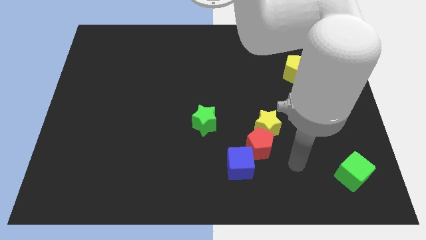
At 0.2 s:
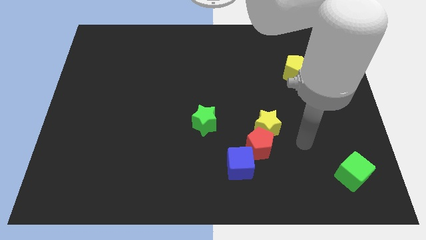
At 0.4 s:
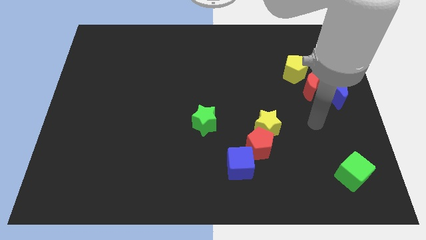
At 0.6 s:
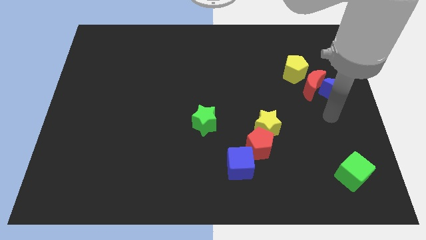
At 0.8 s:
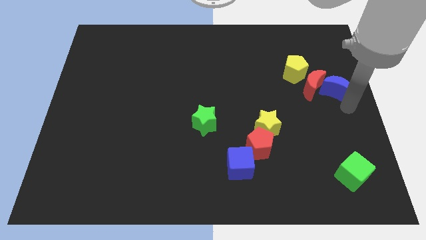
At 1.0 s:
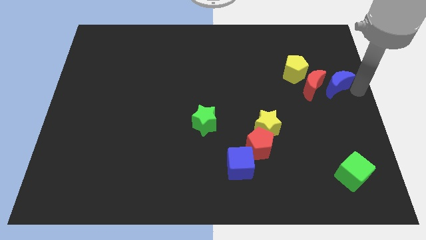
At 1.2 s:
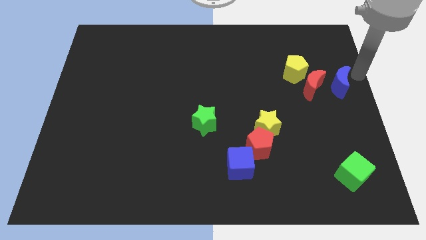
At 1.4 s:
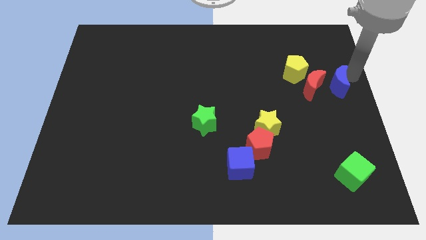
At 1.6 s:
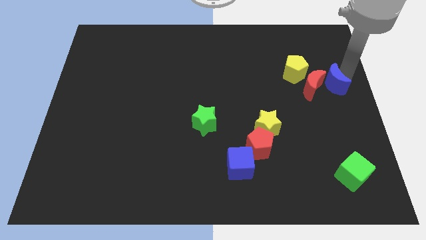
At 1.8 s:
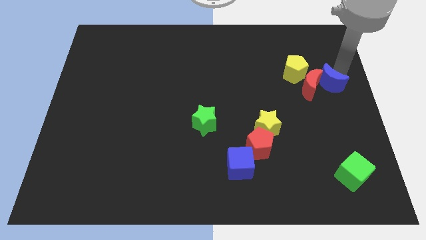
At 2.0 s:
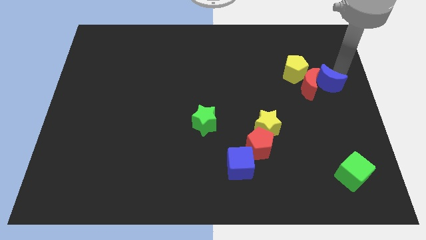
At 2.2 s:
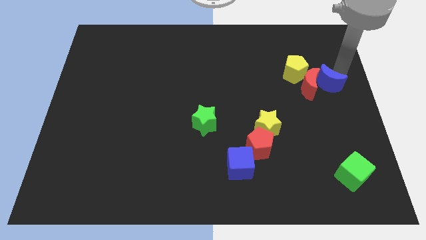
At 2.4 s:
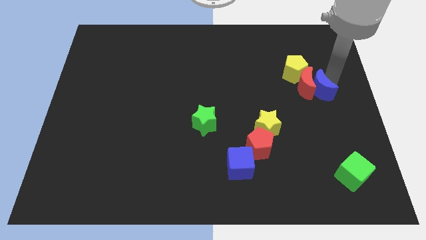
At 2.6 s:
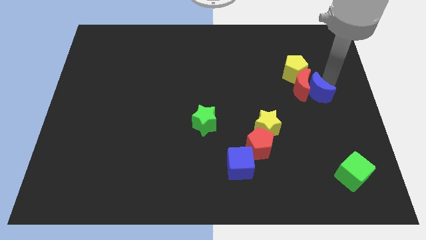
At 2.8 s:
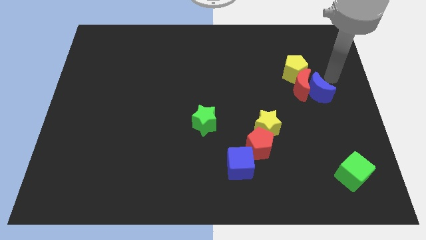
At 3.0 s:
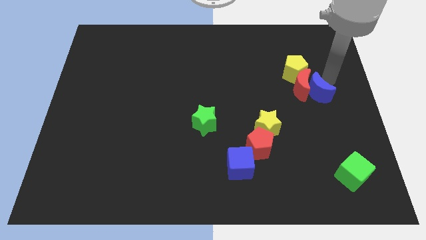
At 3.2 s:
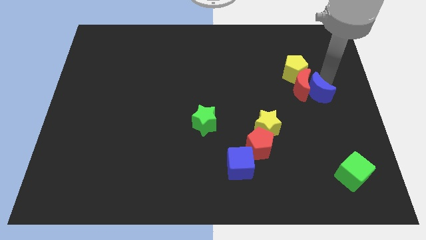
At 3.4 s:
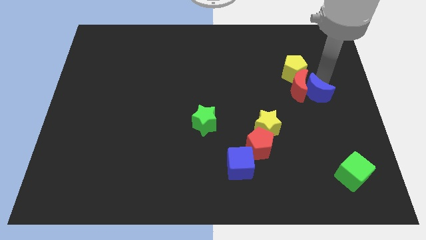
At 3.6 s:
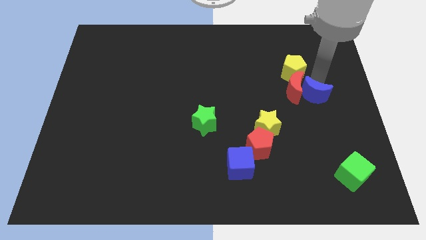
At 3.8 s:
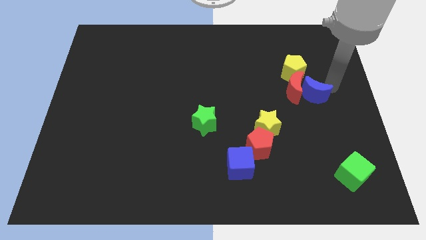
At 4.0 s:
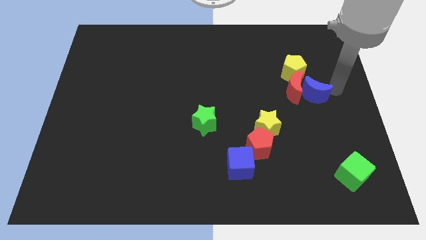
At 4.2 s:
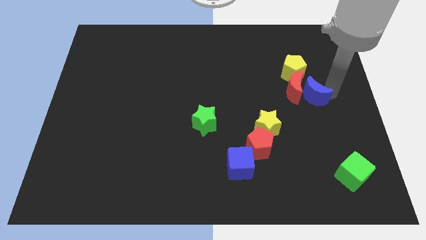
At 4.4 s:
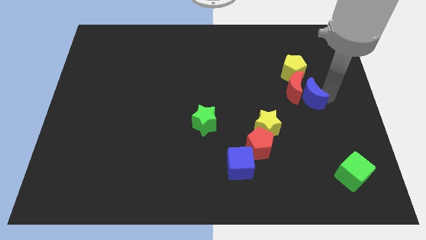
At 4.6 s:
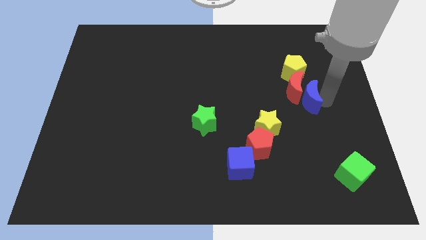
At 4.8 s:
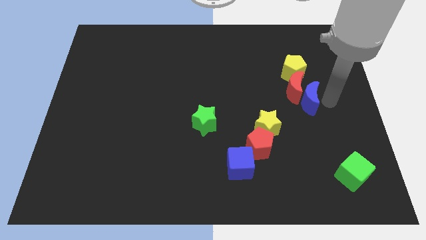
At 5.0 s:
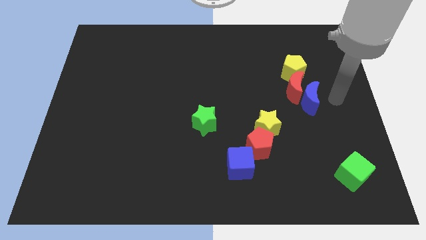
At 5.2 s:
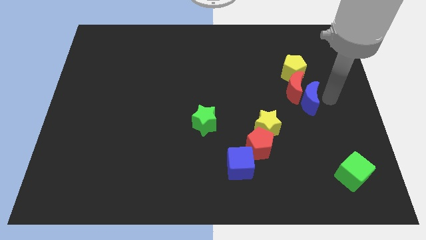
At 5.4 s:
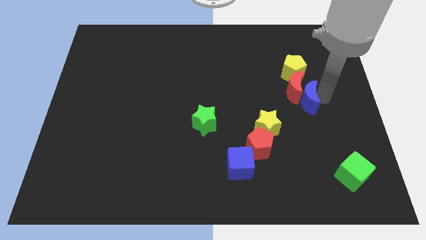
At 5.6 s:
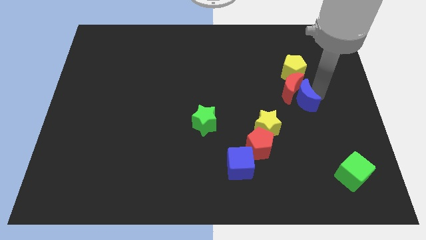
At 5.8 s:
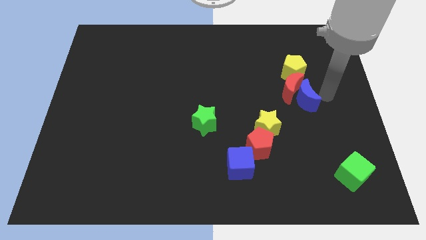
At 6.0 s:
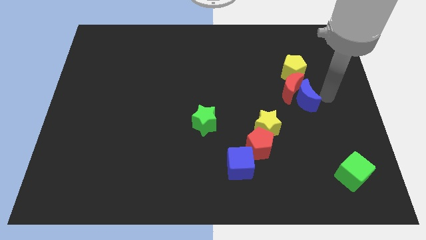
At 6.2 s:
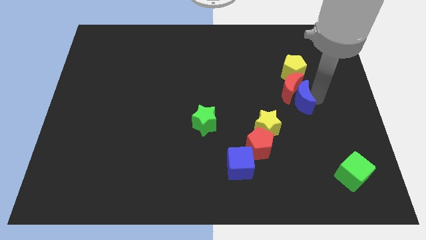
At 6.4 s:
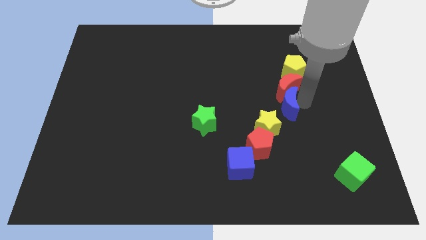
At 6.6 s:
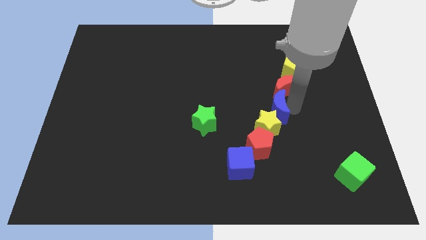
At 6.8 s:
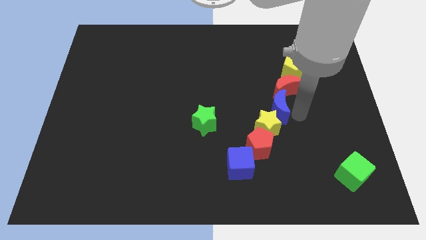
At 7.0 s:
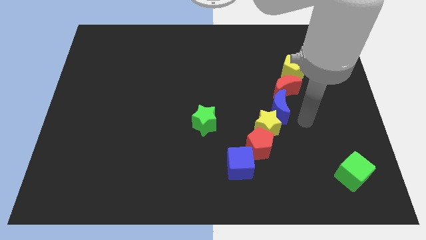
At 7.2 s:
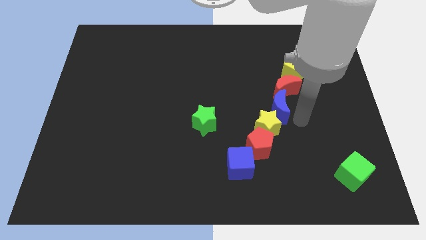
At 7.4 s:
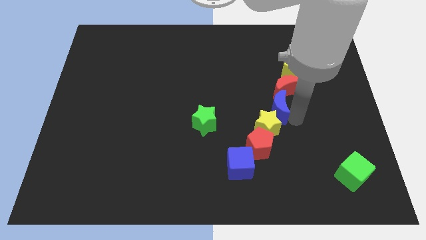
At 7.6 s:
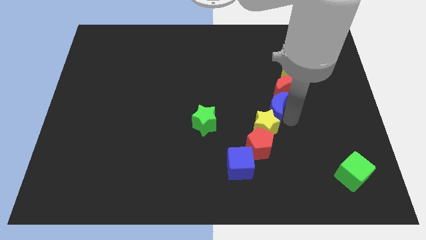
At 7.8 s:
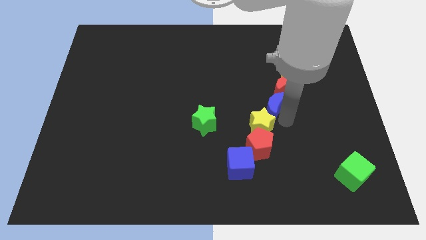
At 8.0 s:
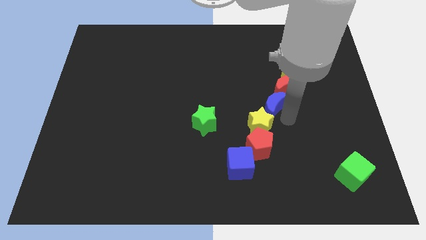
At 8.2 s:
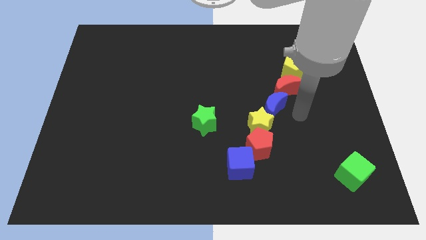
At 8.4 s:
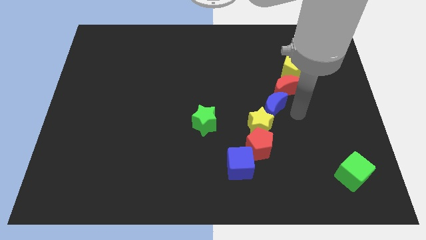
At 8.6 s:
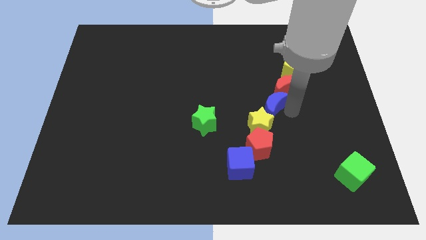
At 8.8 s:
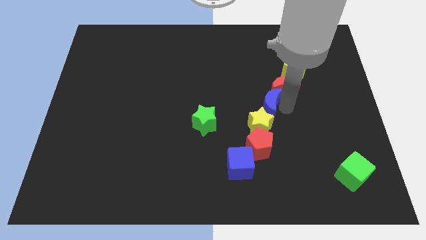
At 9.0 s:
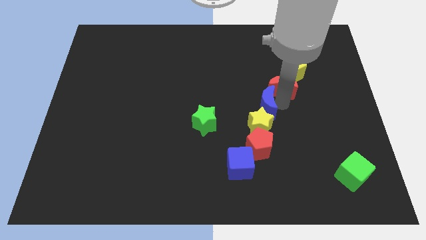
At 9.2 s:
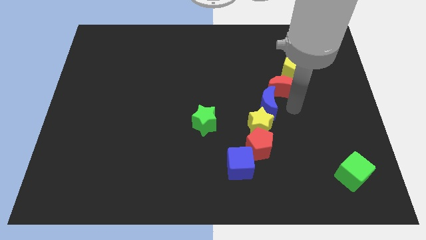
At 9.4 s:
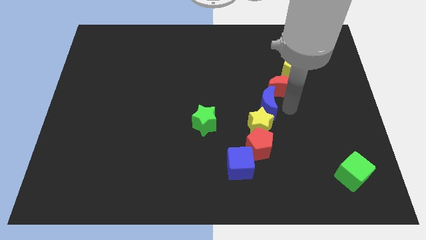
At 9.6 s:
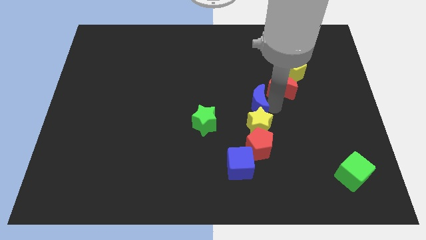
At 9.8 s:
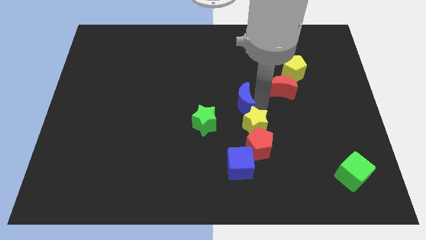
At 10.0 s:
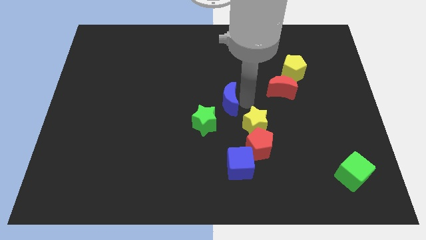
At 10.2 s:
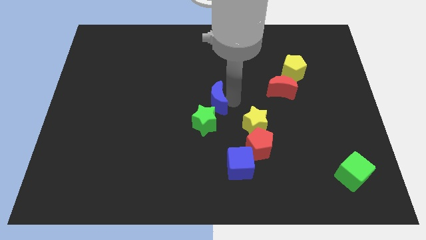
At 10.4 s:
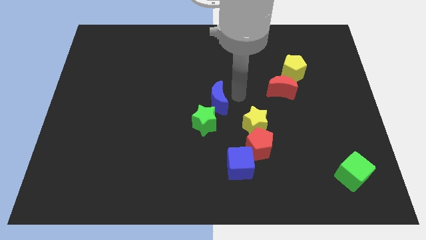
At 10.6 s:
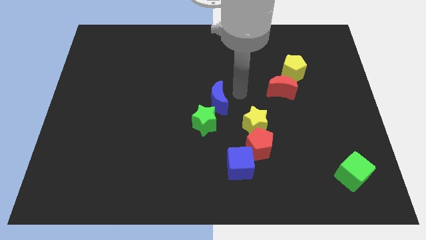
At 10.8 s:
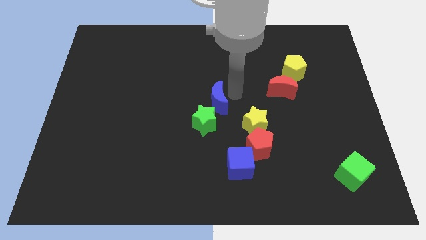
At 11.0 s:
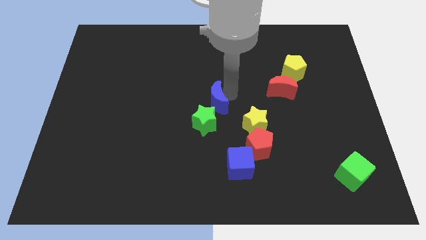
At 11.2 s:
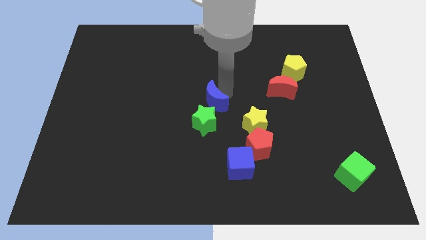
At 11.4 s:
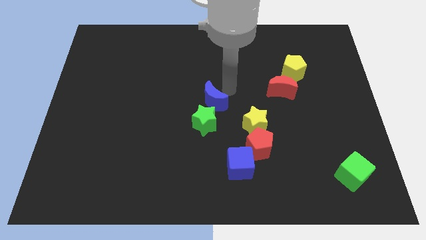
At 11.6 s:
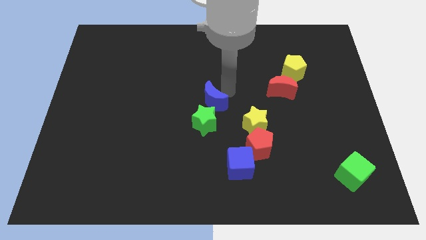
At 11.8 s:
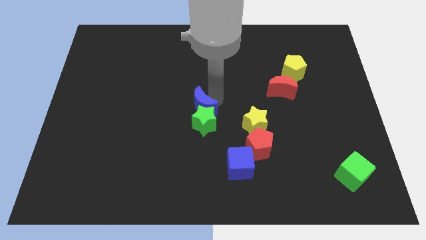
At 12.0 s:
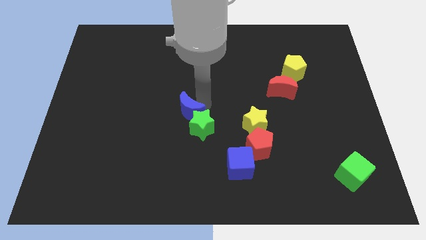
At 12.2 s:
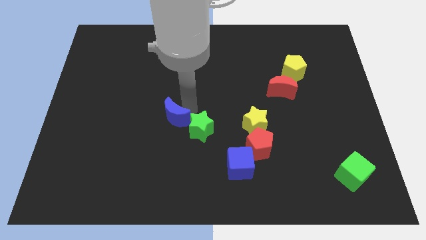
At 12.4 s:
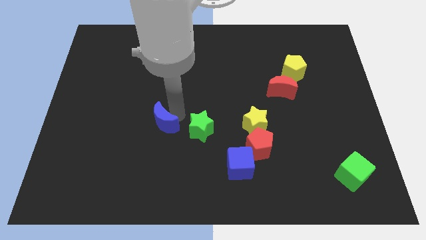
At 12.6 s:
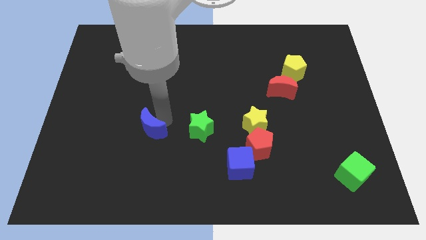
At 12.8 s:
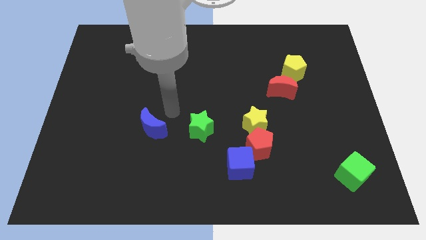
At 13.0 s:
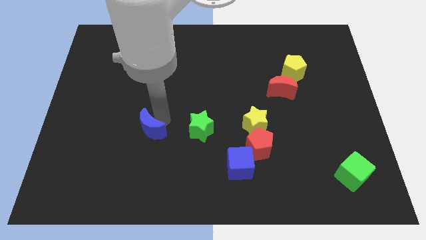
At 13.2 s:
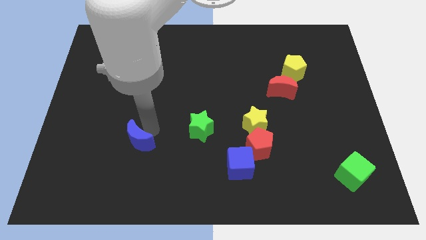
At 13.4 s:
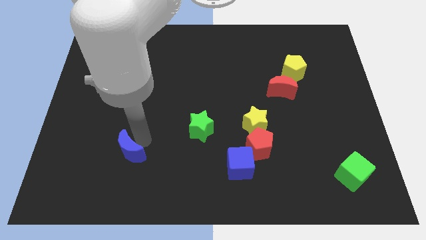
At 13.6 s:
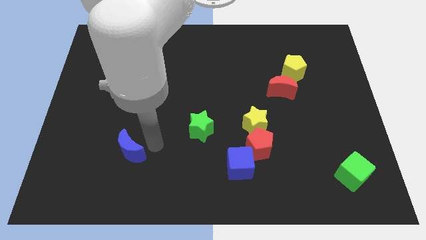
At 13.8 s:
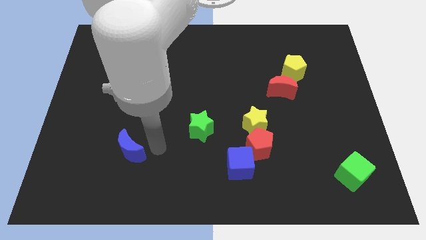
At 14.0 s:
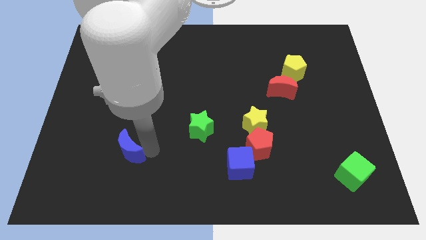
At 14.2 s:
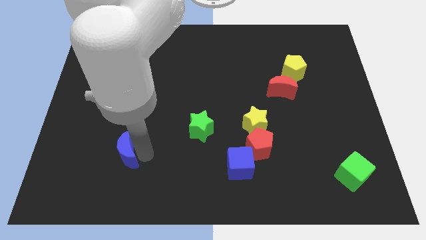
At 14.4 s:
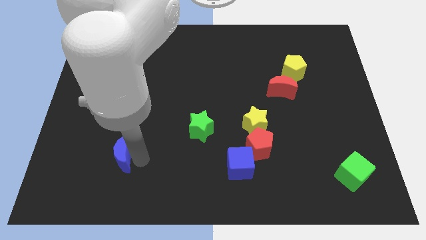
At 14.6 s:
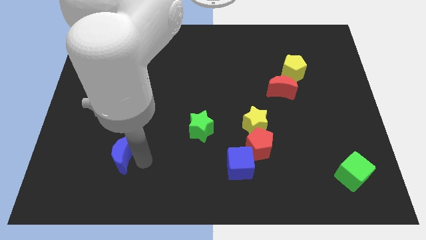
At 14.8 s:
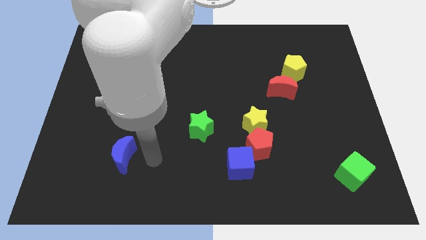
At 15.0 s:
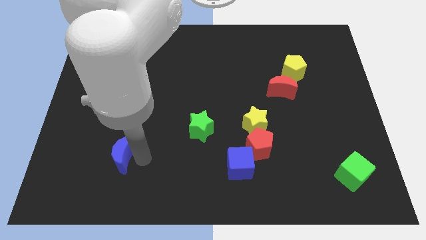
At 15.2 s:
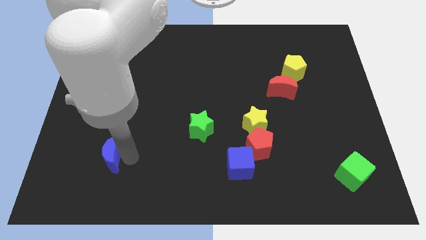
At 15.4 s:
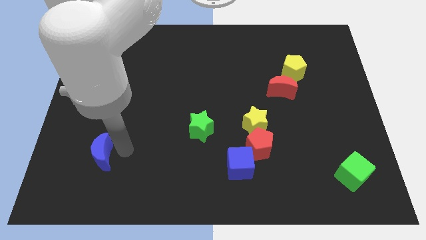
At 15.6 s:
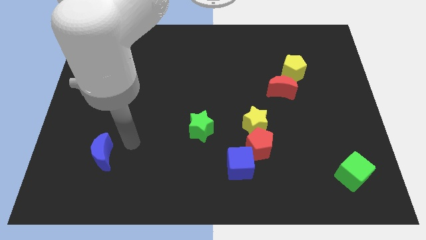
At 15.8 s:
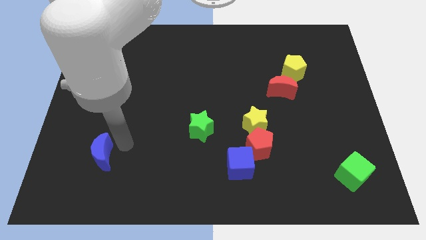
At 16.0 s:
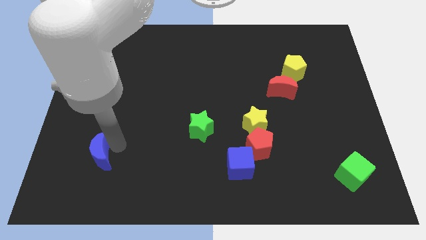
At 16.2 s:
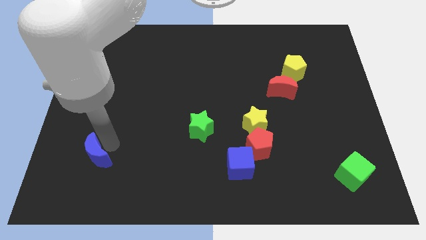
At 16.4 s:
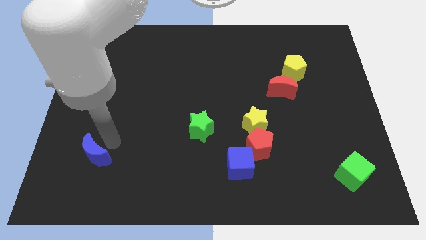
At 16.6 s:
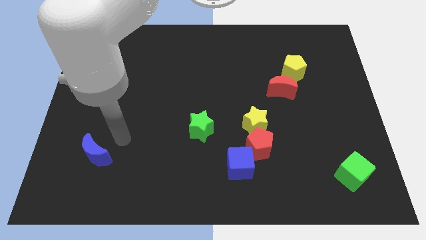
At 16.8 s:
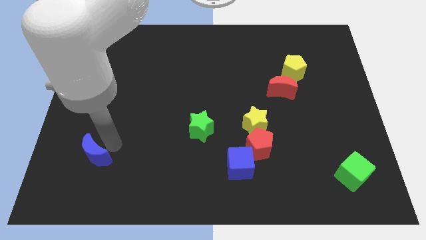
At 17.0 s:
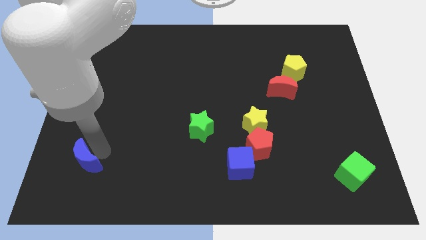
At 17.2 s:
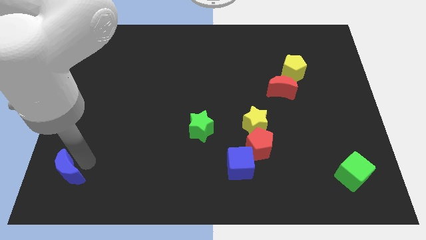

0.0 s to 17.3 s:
slide the blue moon to the bottom left corner
